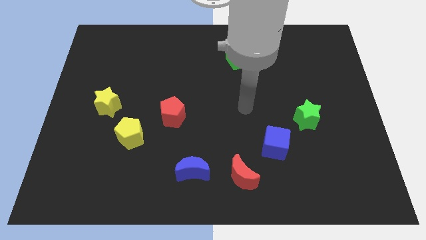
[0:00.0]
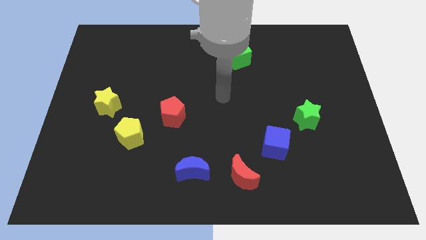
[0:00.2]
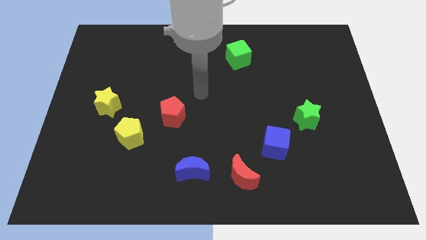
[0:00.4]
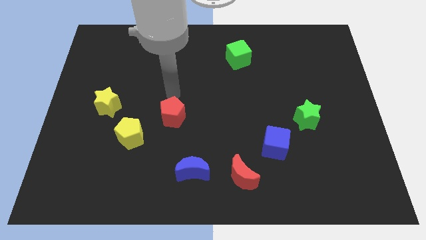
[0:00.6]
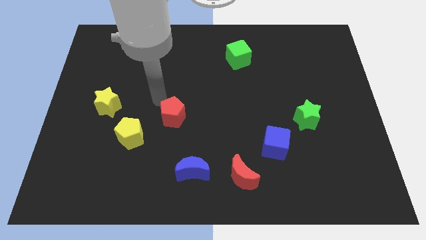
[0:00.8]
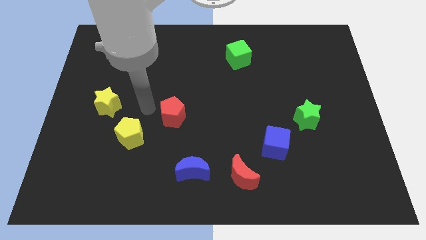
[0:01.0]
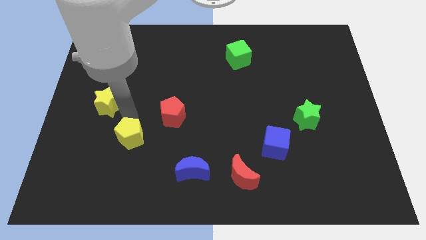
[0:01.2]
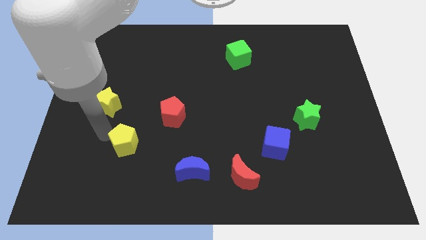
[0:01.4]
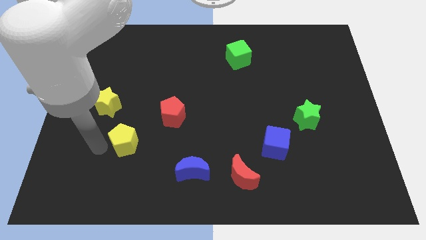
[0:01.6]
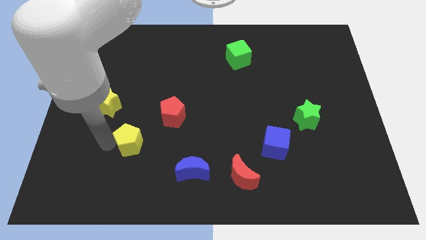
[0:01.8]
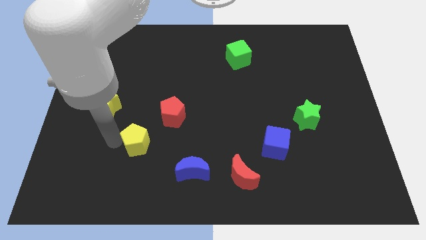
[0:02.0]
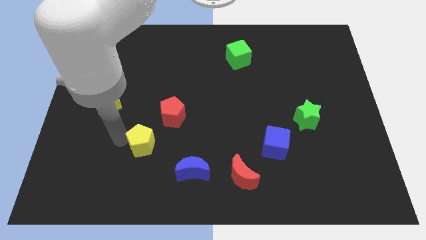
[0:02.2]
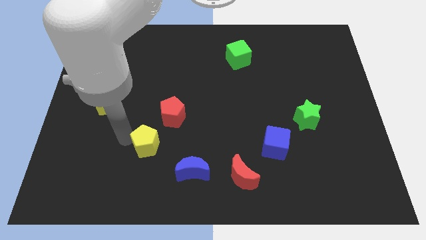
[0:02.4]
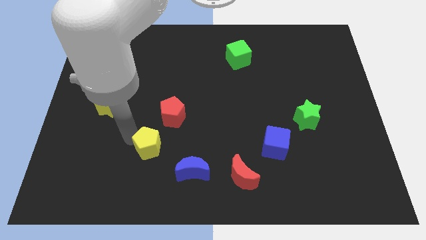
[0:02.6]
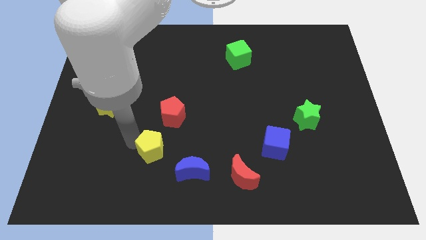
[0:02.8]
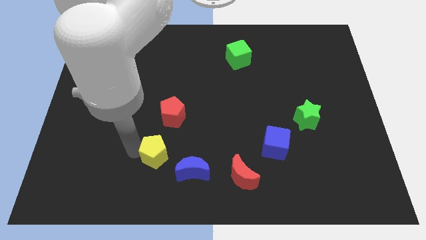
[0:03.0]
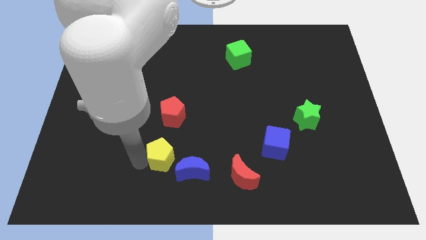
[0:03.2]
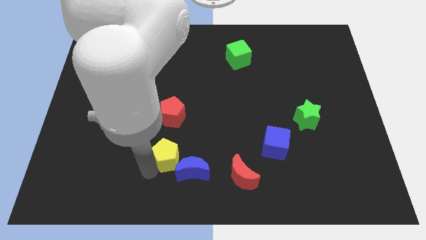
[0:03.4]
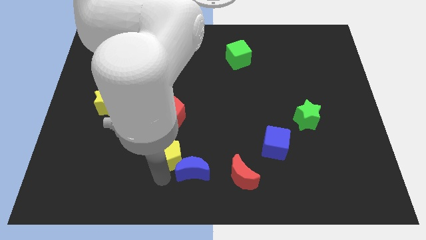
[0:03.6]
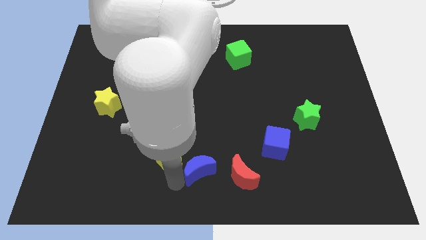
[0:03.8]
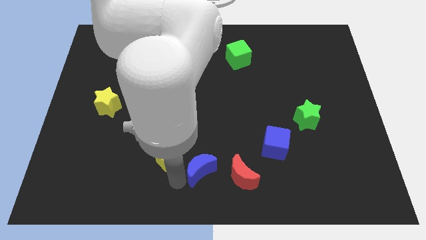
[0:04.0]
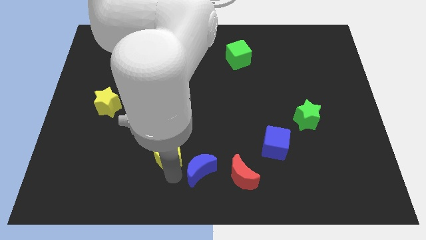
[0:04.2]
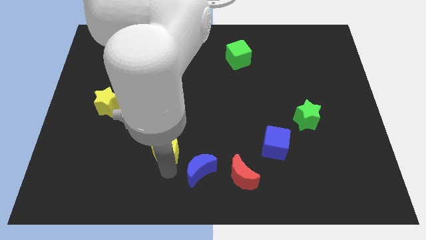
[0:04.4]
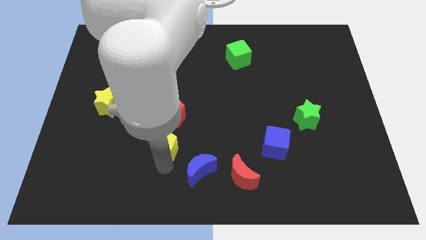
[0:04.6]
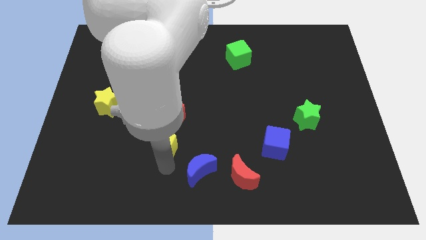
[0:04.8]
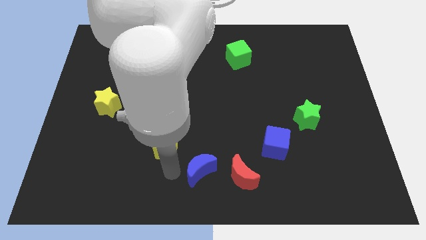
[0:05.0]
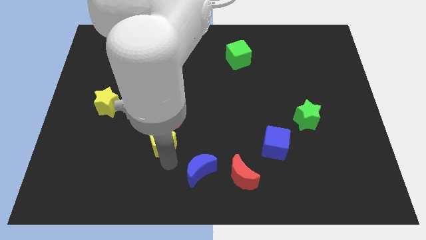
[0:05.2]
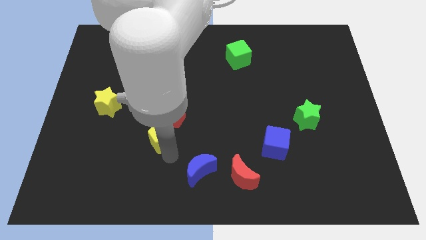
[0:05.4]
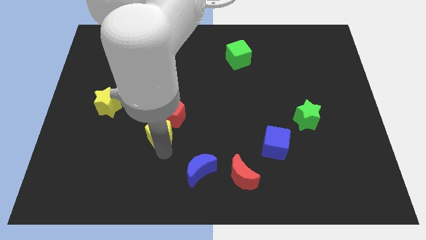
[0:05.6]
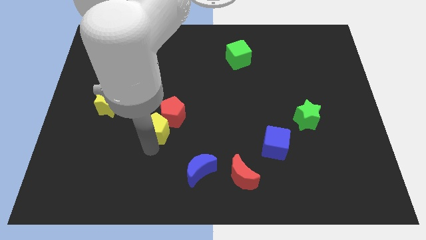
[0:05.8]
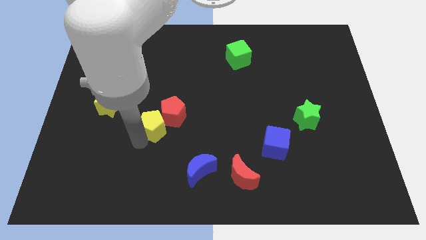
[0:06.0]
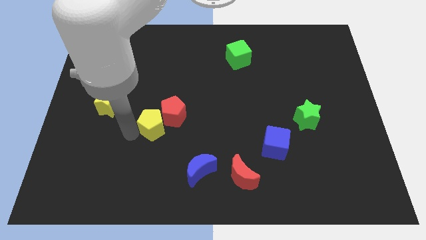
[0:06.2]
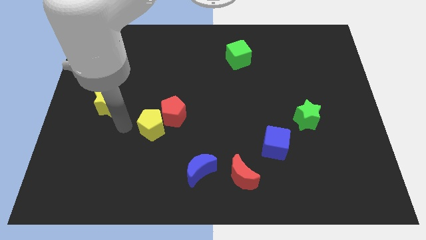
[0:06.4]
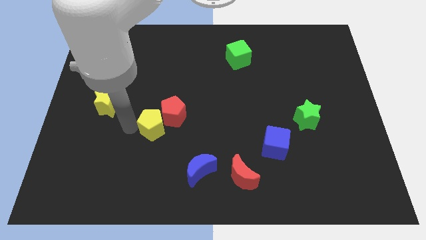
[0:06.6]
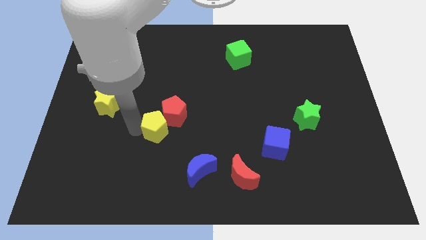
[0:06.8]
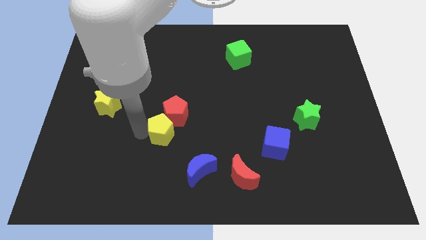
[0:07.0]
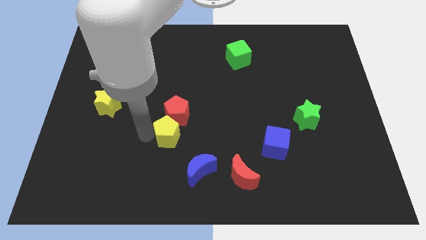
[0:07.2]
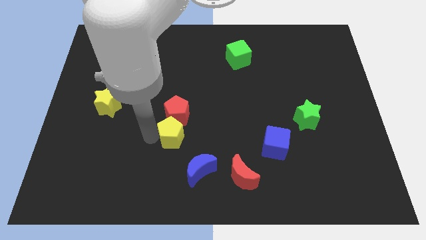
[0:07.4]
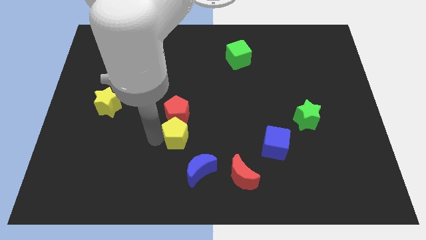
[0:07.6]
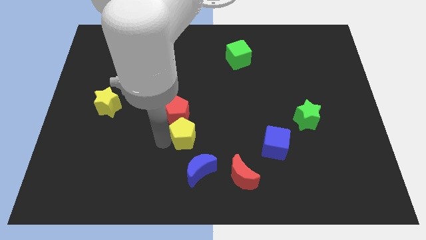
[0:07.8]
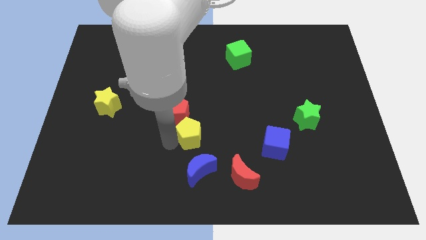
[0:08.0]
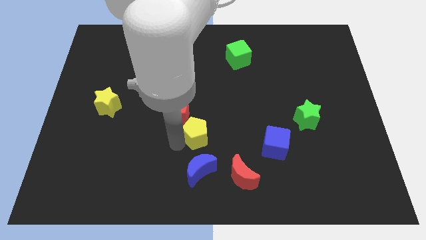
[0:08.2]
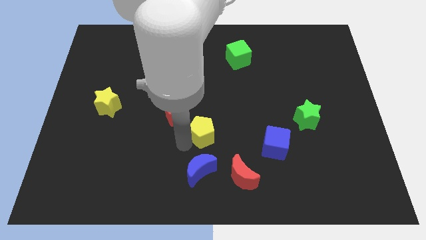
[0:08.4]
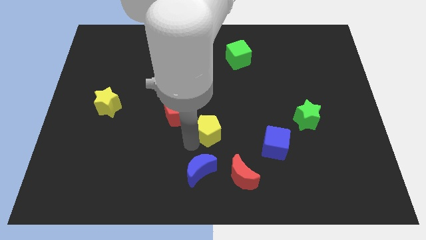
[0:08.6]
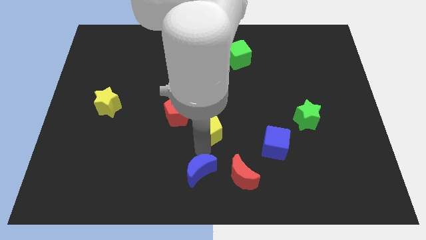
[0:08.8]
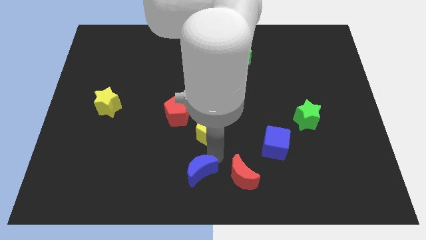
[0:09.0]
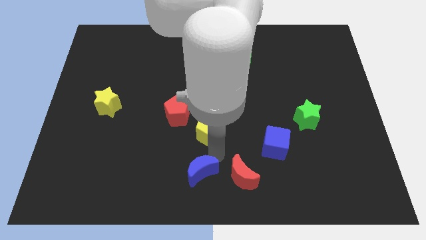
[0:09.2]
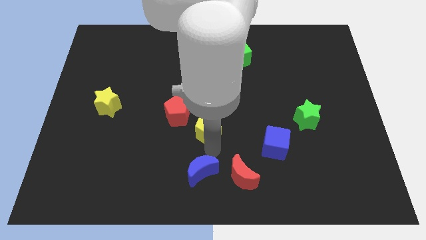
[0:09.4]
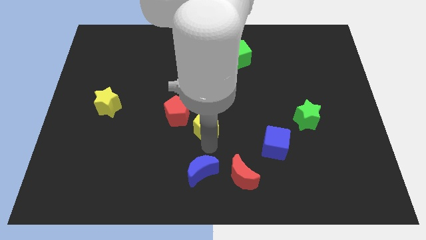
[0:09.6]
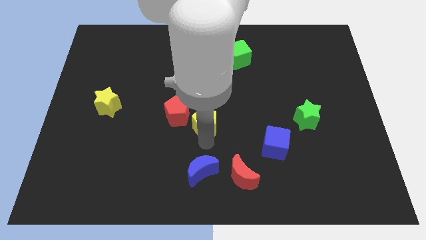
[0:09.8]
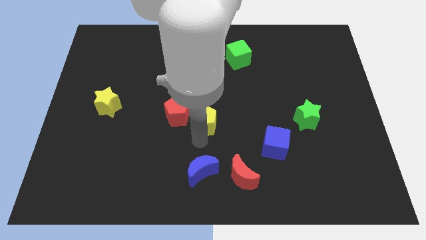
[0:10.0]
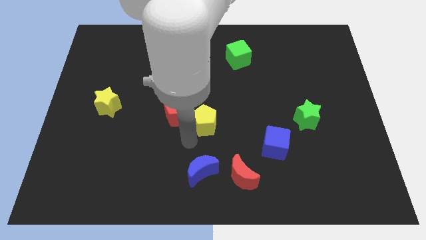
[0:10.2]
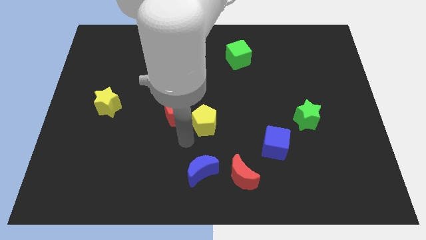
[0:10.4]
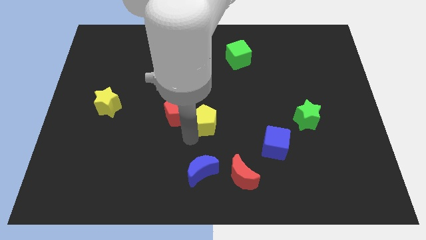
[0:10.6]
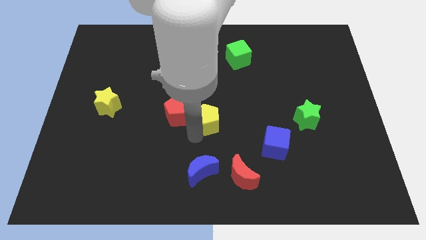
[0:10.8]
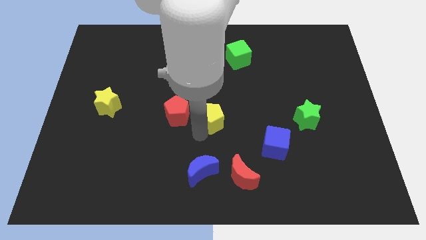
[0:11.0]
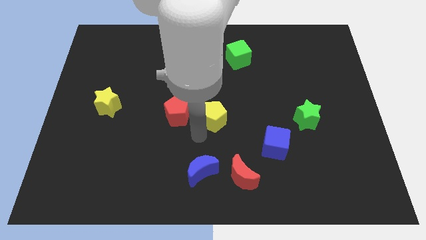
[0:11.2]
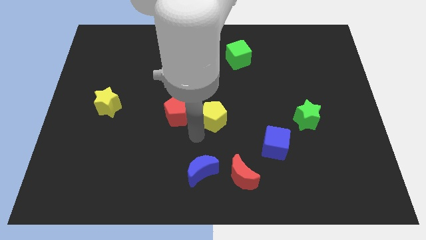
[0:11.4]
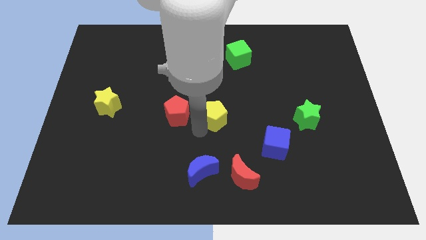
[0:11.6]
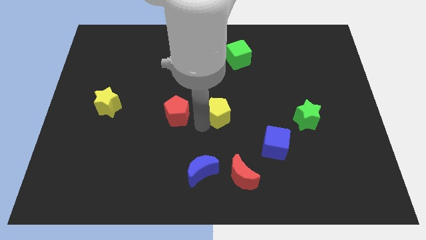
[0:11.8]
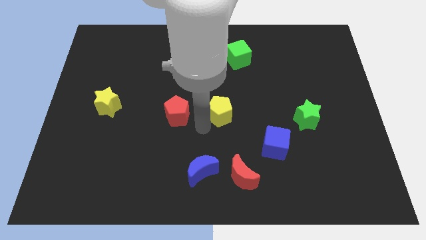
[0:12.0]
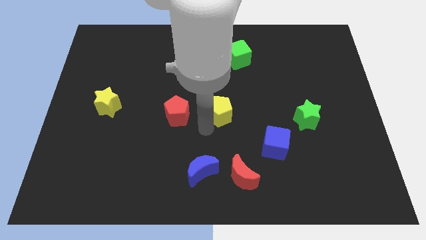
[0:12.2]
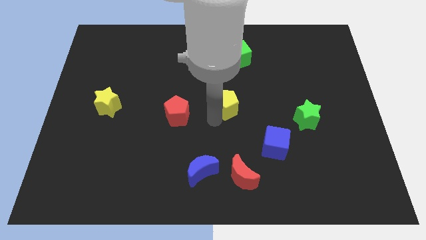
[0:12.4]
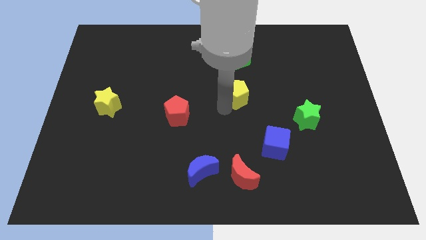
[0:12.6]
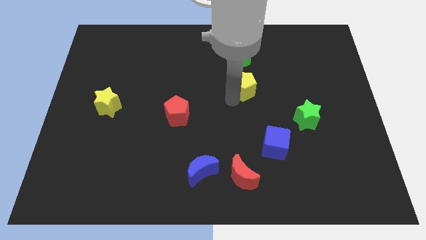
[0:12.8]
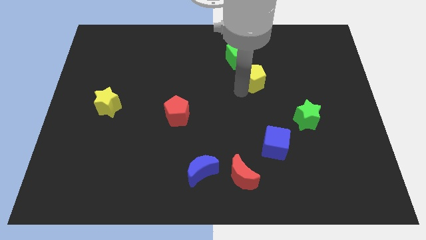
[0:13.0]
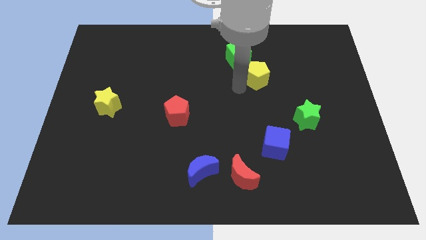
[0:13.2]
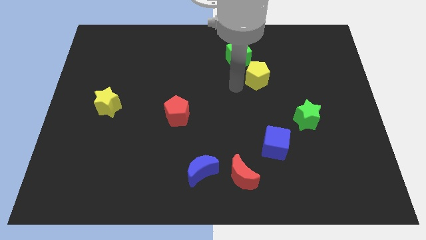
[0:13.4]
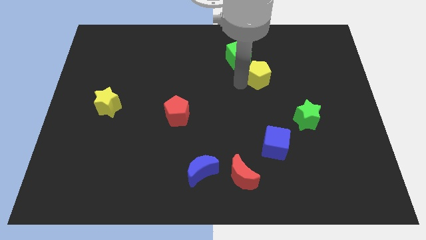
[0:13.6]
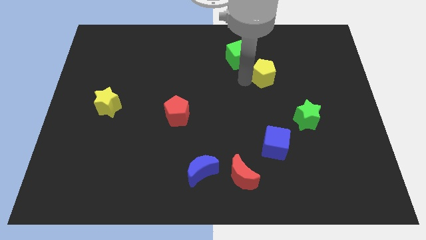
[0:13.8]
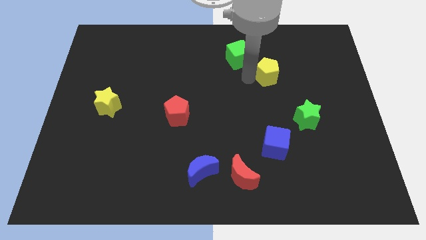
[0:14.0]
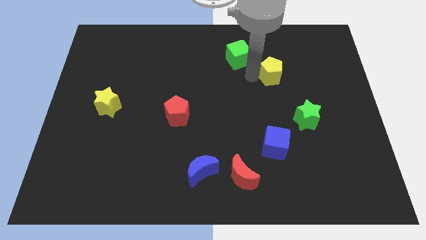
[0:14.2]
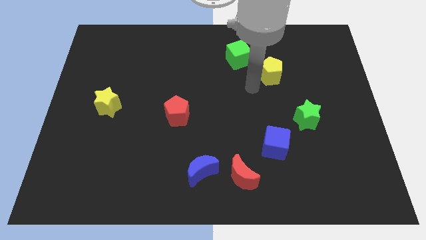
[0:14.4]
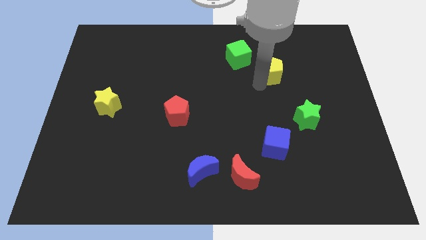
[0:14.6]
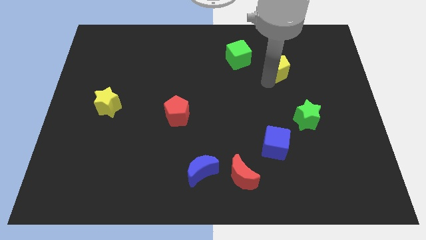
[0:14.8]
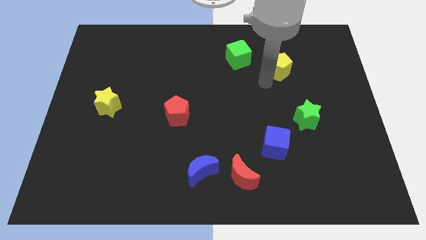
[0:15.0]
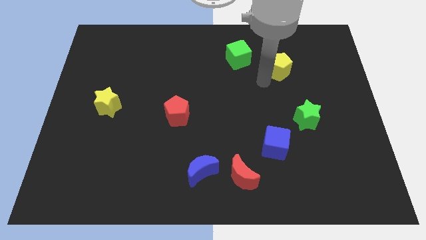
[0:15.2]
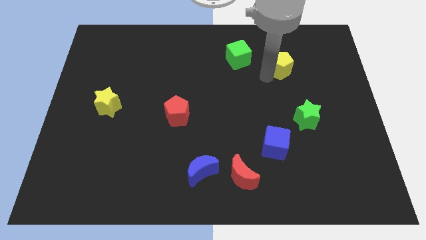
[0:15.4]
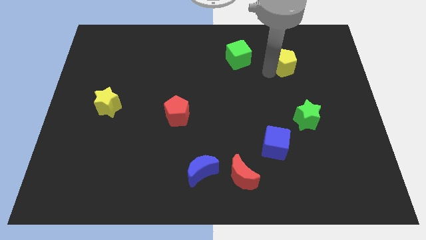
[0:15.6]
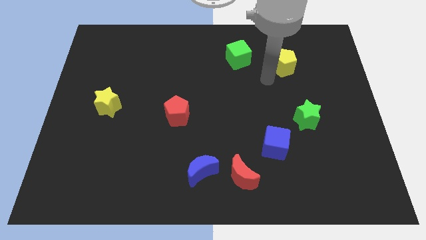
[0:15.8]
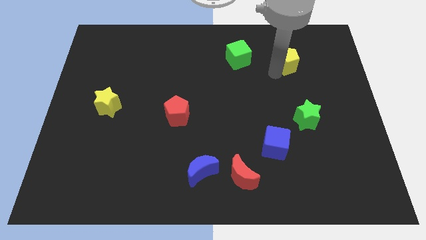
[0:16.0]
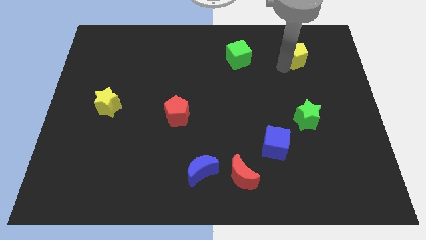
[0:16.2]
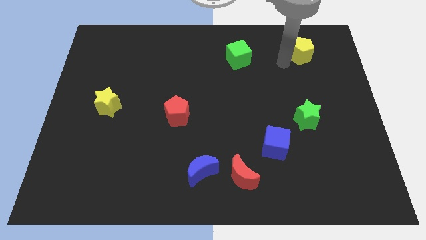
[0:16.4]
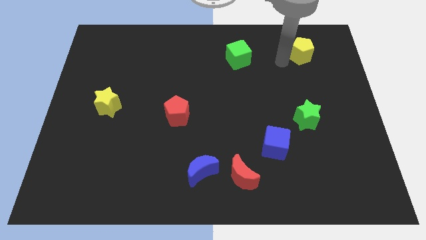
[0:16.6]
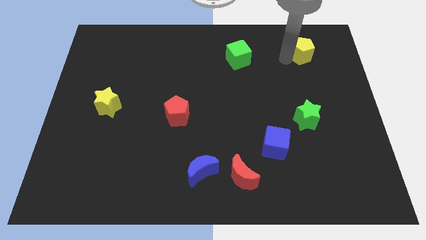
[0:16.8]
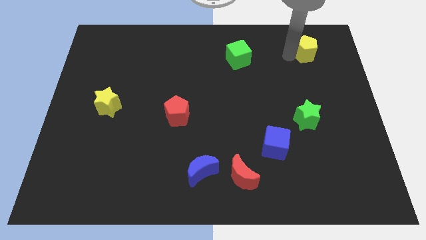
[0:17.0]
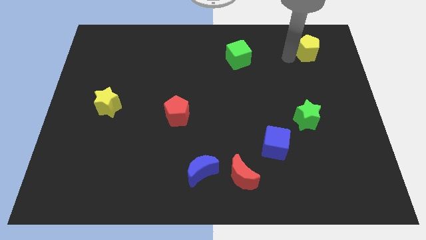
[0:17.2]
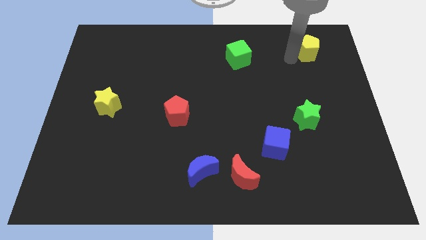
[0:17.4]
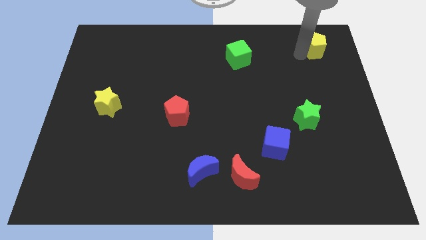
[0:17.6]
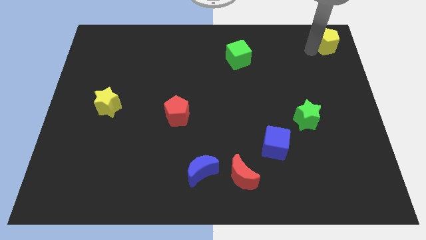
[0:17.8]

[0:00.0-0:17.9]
put the yellow pentagon to the top right corner

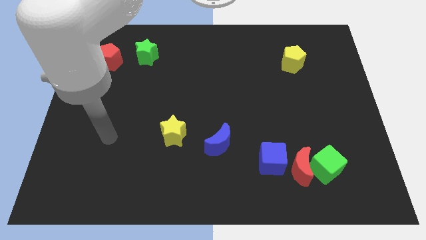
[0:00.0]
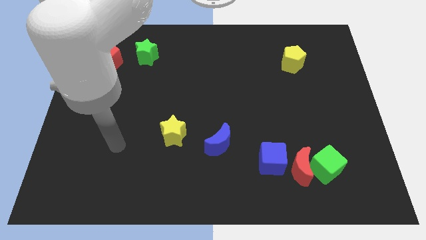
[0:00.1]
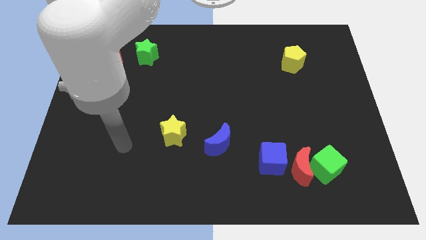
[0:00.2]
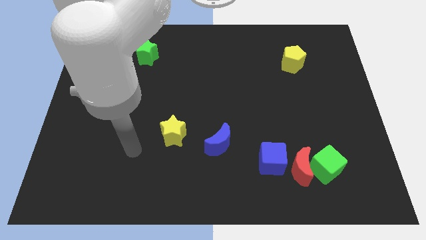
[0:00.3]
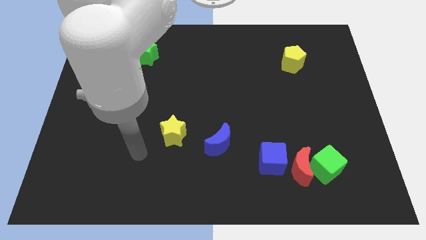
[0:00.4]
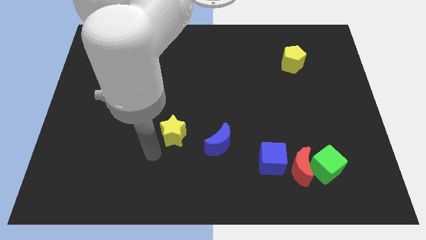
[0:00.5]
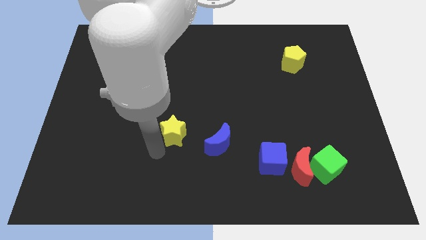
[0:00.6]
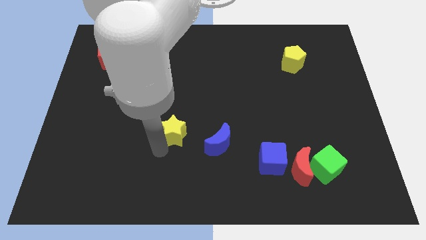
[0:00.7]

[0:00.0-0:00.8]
slide the yellow star to the center of the board
